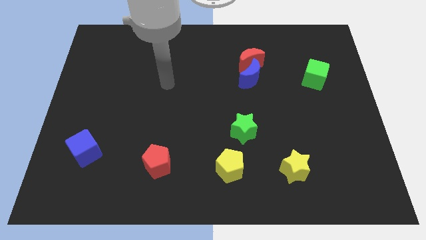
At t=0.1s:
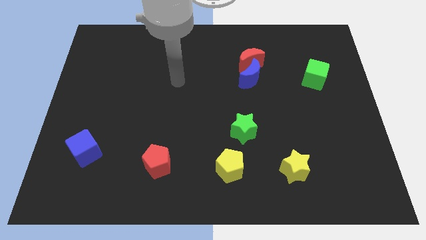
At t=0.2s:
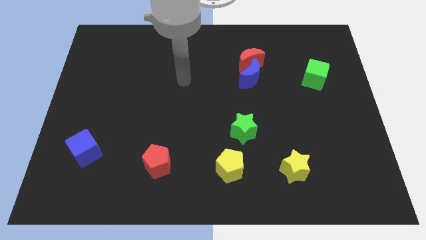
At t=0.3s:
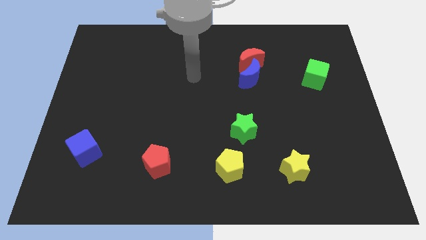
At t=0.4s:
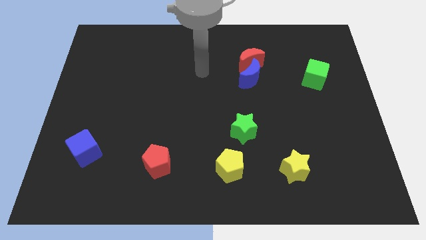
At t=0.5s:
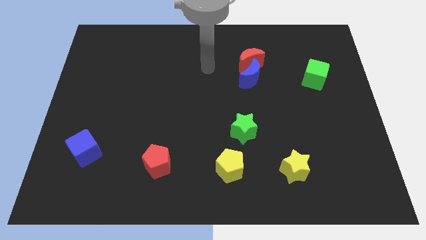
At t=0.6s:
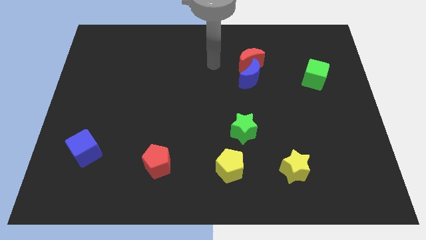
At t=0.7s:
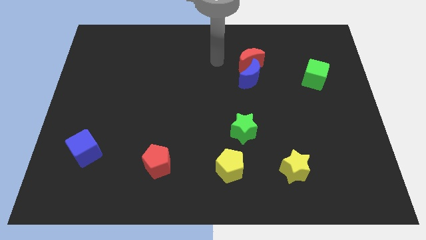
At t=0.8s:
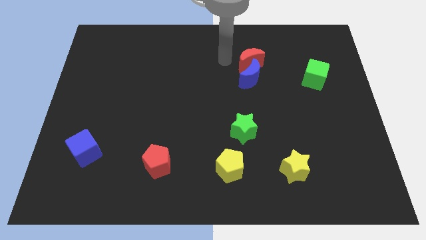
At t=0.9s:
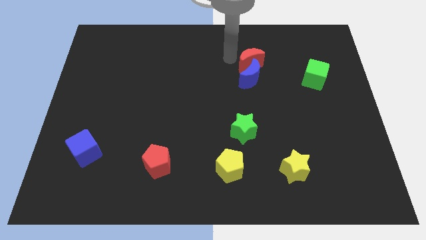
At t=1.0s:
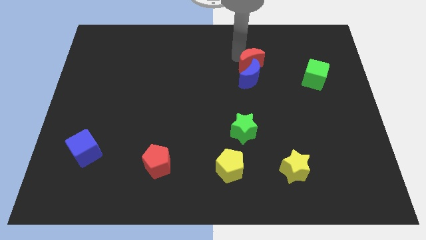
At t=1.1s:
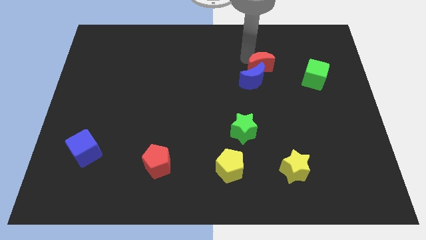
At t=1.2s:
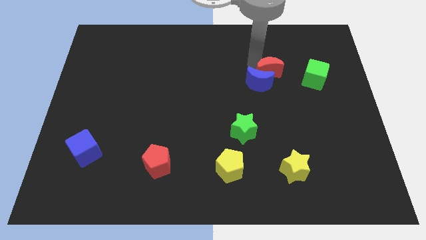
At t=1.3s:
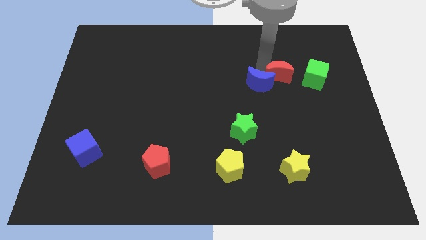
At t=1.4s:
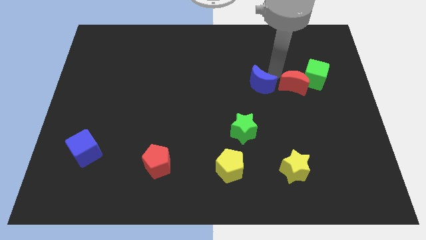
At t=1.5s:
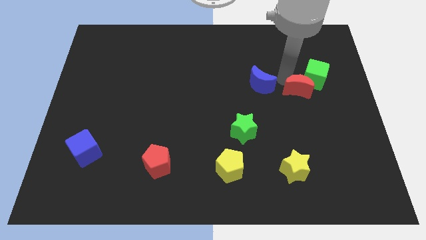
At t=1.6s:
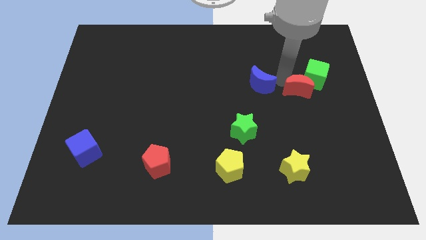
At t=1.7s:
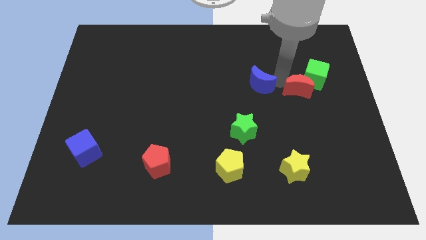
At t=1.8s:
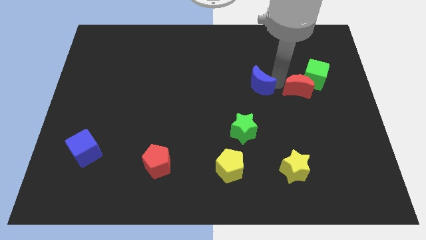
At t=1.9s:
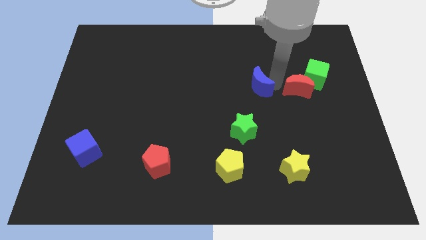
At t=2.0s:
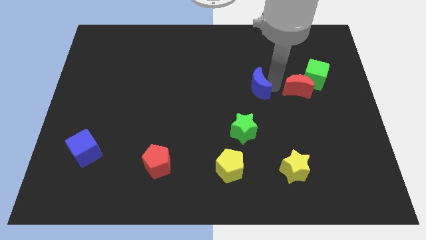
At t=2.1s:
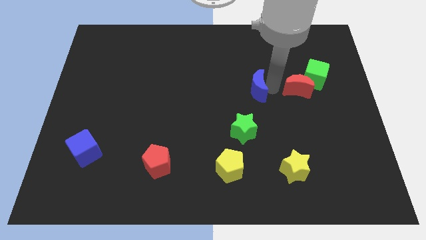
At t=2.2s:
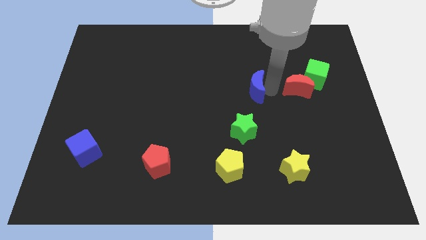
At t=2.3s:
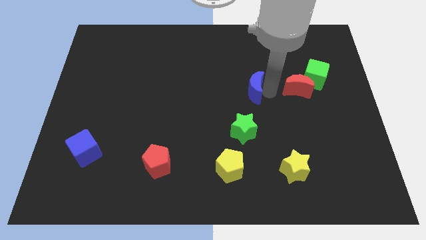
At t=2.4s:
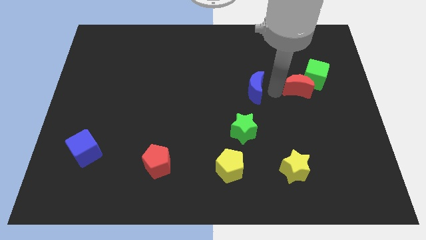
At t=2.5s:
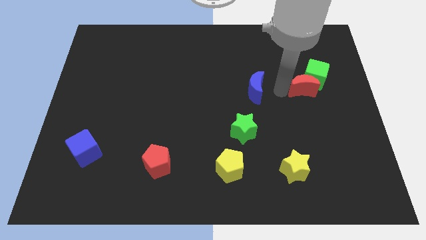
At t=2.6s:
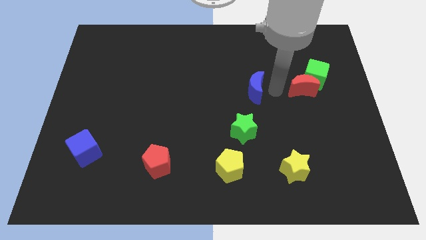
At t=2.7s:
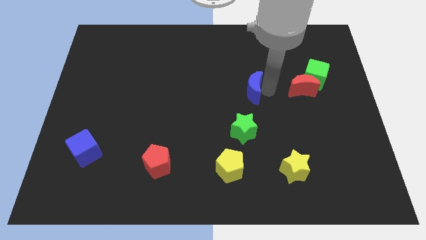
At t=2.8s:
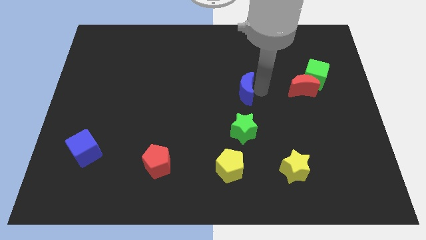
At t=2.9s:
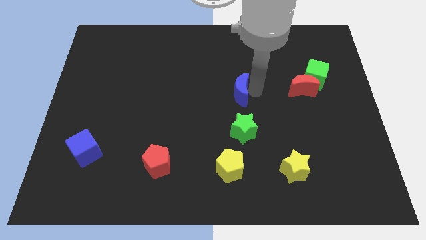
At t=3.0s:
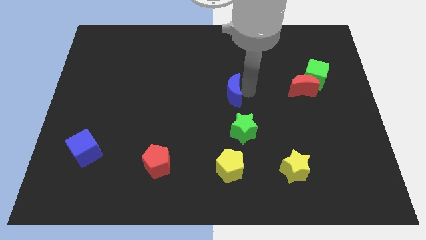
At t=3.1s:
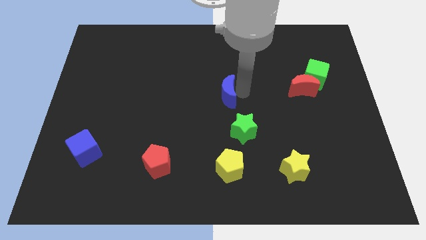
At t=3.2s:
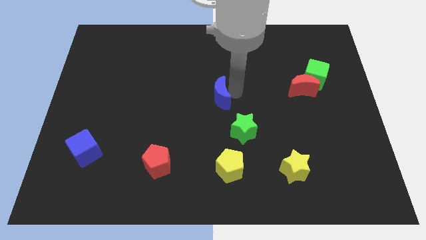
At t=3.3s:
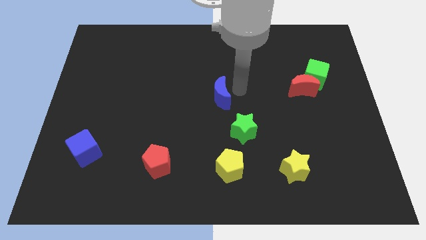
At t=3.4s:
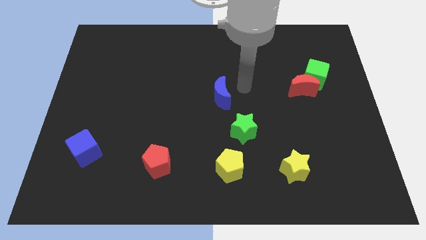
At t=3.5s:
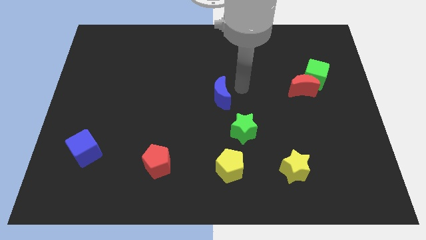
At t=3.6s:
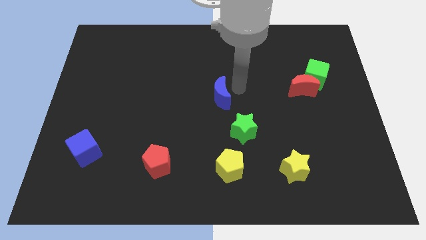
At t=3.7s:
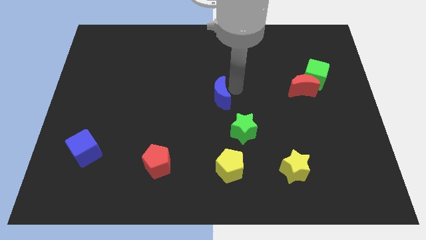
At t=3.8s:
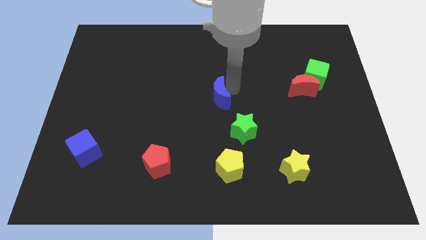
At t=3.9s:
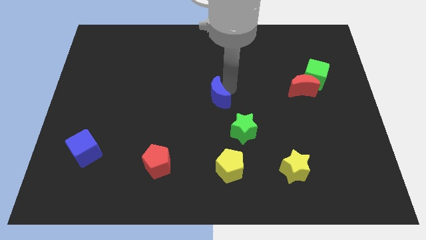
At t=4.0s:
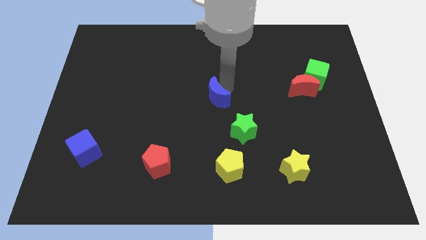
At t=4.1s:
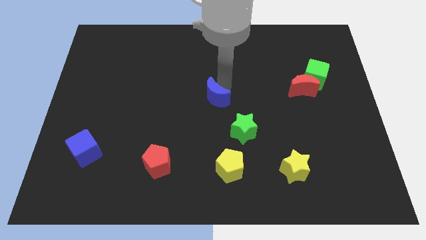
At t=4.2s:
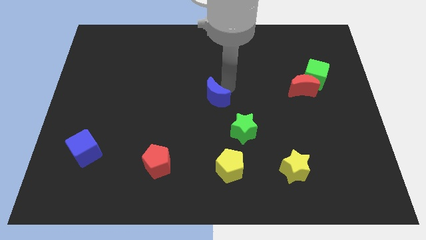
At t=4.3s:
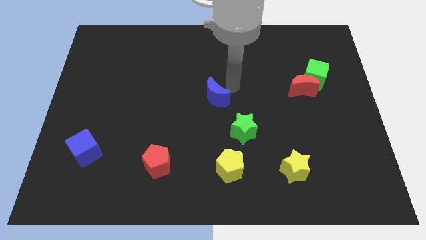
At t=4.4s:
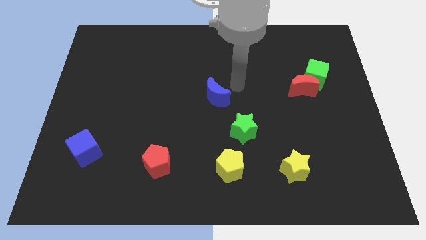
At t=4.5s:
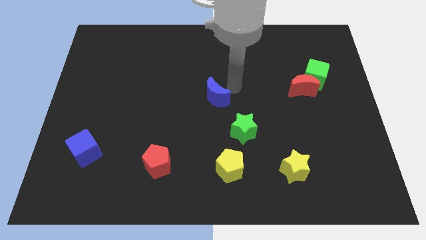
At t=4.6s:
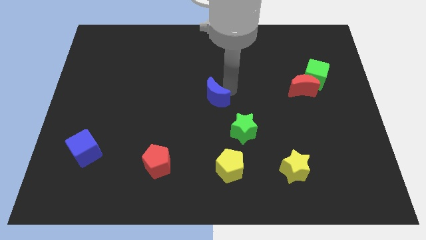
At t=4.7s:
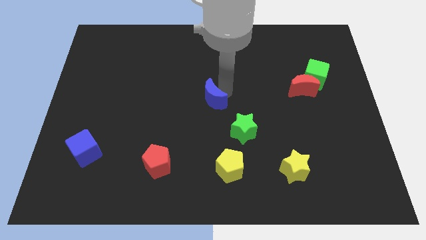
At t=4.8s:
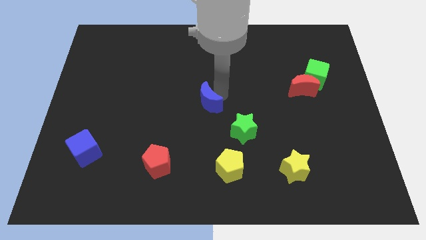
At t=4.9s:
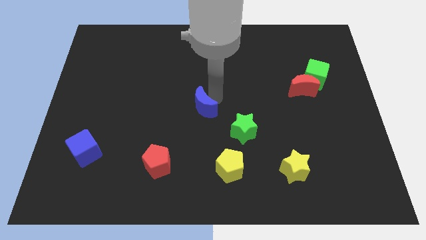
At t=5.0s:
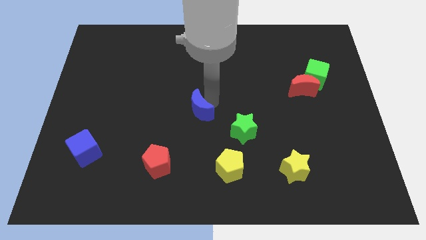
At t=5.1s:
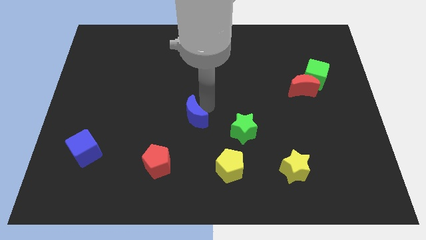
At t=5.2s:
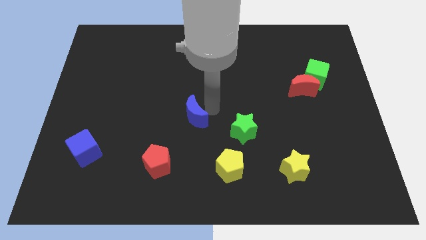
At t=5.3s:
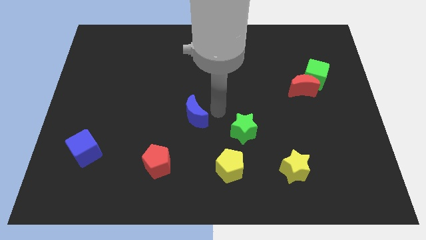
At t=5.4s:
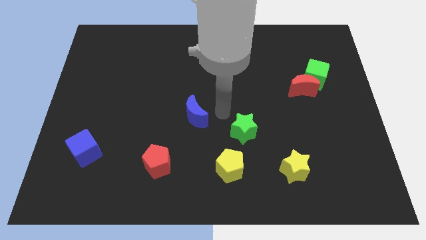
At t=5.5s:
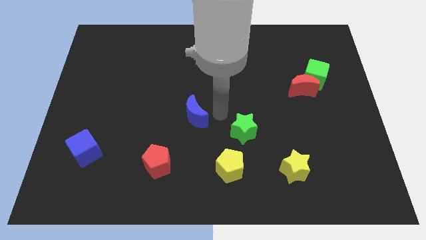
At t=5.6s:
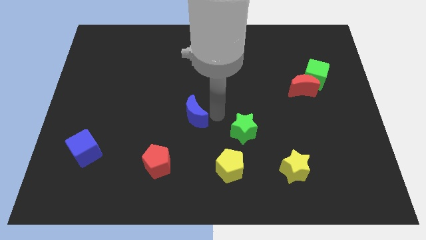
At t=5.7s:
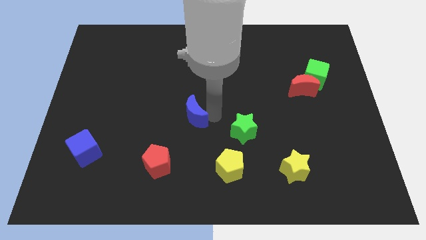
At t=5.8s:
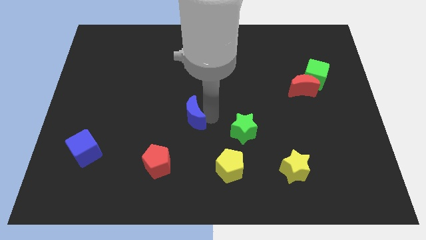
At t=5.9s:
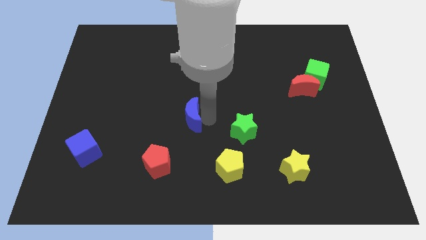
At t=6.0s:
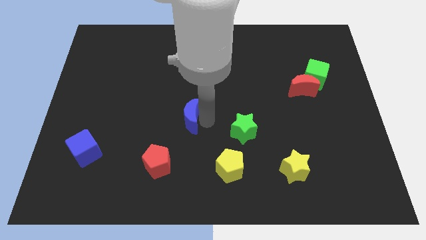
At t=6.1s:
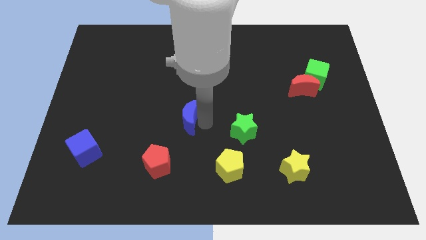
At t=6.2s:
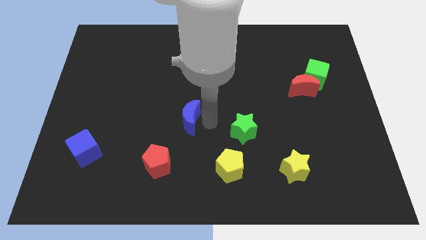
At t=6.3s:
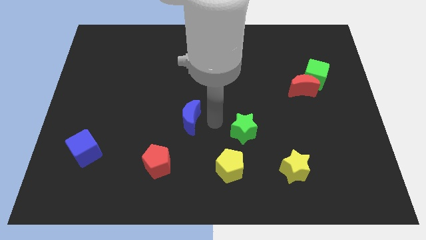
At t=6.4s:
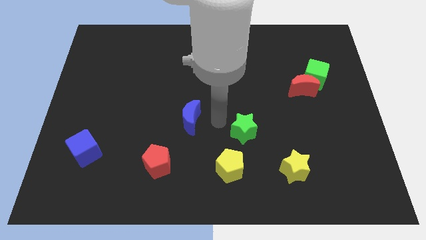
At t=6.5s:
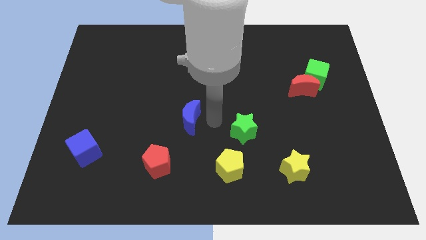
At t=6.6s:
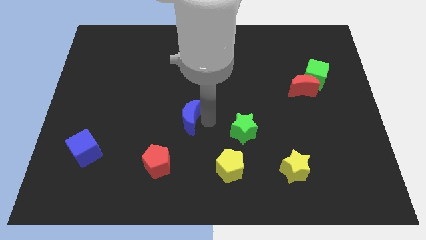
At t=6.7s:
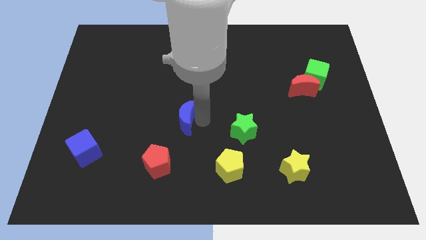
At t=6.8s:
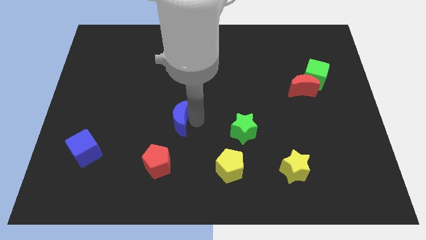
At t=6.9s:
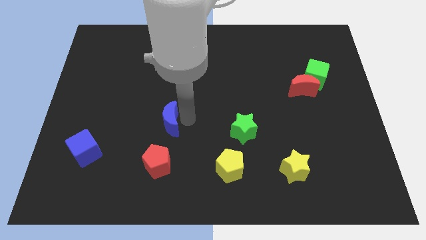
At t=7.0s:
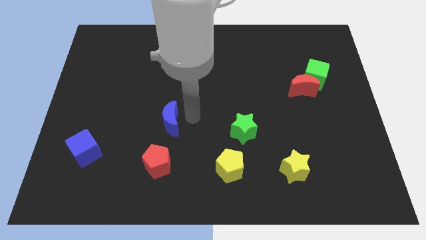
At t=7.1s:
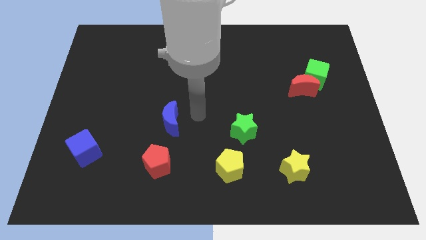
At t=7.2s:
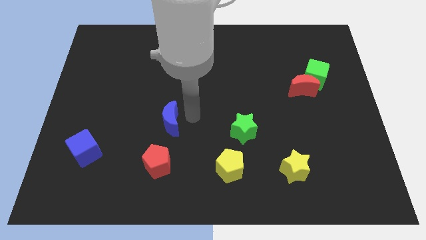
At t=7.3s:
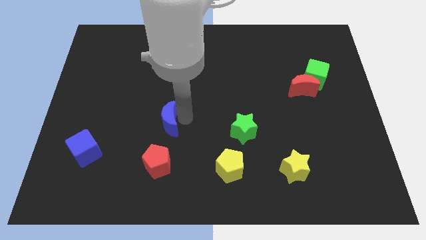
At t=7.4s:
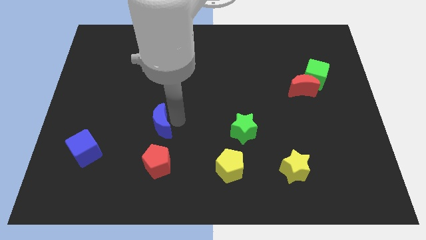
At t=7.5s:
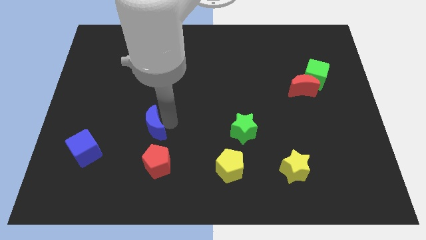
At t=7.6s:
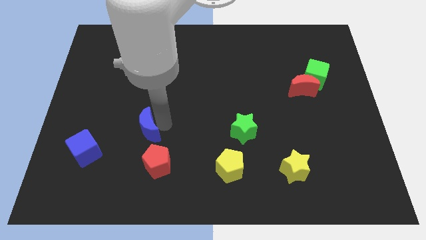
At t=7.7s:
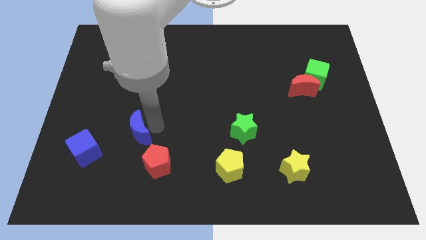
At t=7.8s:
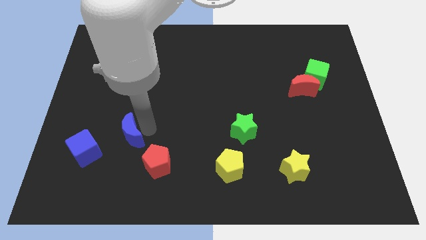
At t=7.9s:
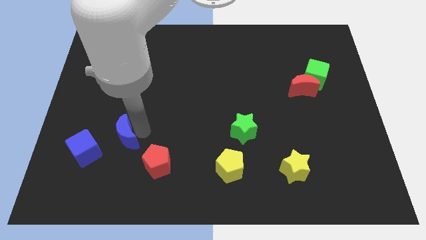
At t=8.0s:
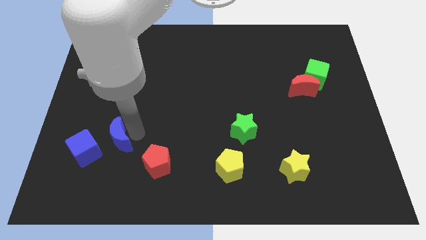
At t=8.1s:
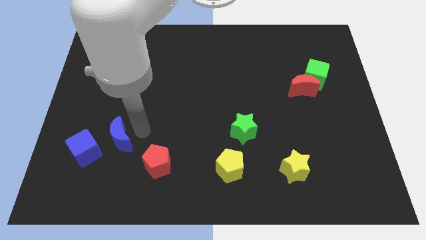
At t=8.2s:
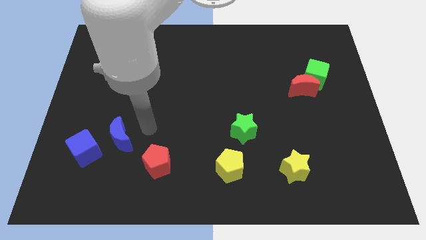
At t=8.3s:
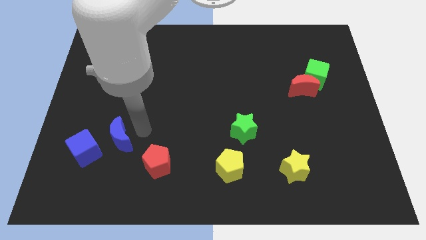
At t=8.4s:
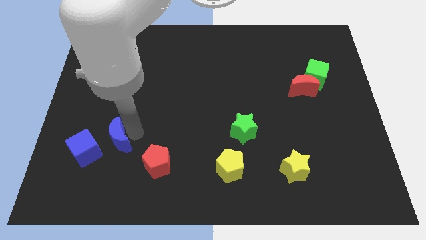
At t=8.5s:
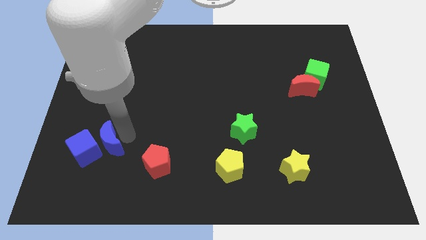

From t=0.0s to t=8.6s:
move the blue moon close to the blue cube
